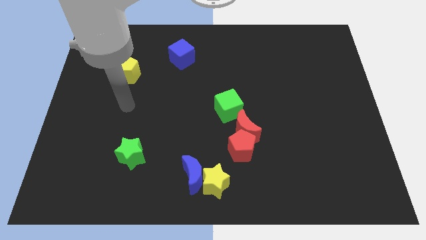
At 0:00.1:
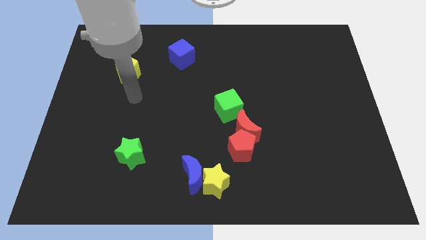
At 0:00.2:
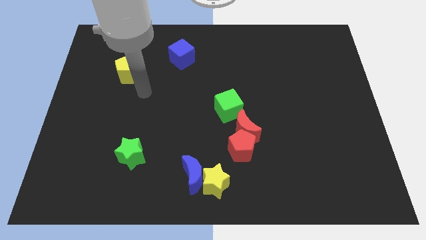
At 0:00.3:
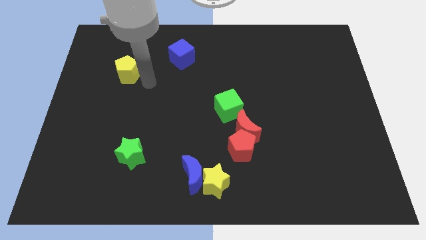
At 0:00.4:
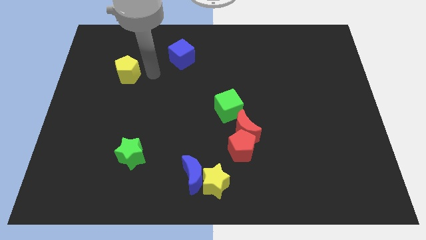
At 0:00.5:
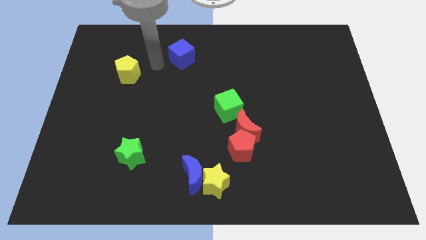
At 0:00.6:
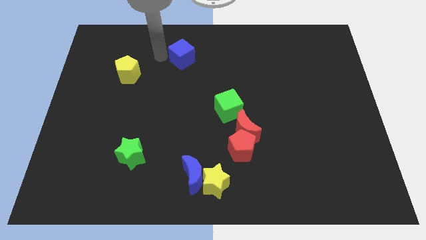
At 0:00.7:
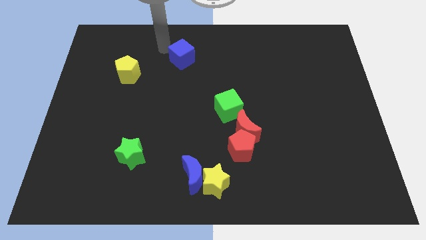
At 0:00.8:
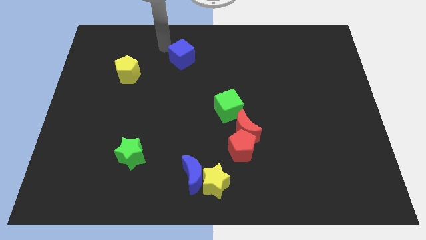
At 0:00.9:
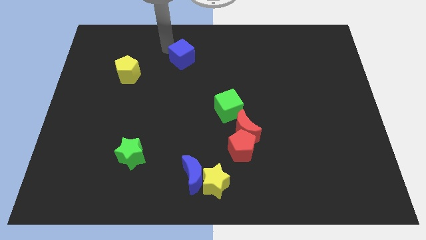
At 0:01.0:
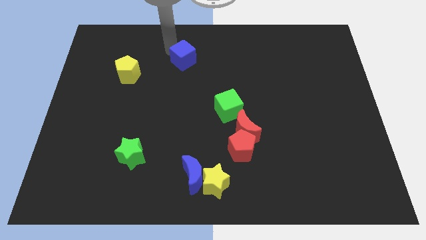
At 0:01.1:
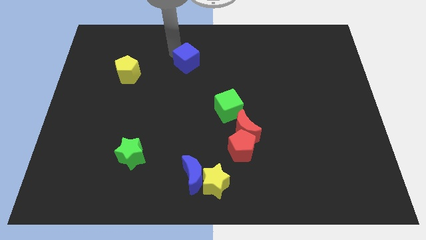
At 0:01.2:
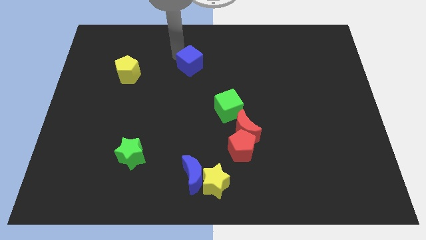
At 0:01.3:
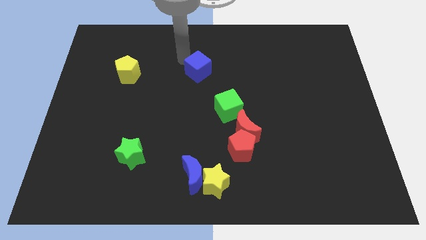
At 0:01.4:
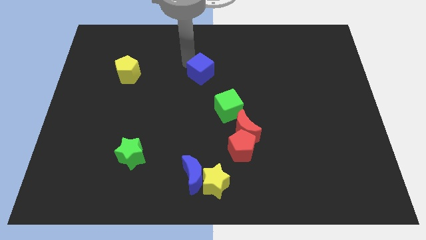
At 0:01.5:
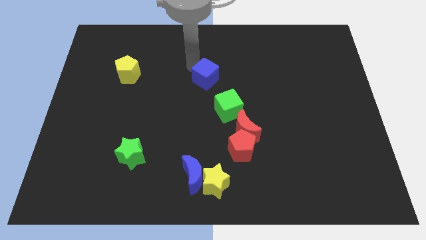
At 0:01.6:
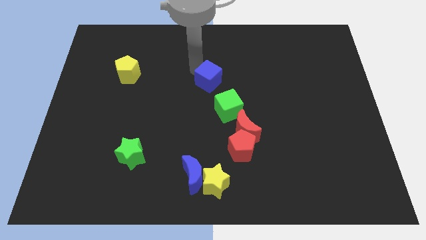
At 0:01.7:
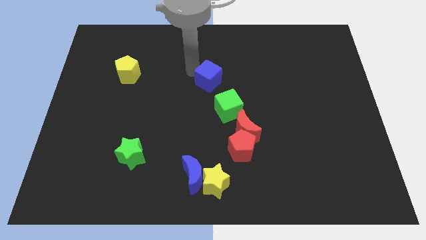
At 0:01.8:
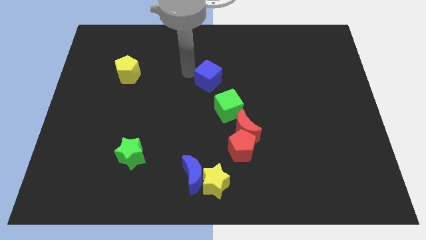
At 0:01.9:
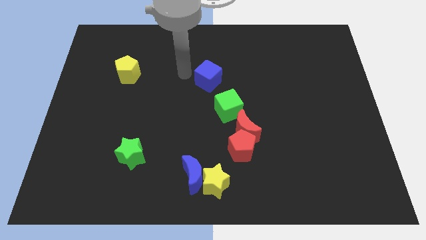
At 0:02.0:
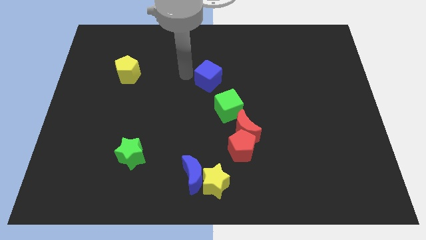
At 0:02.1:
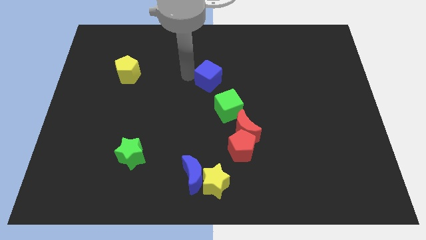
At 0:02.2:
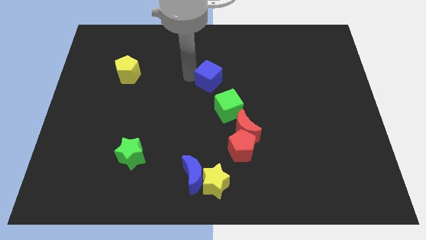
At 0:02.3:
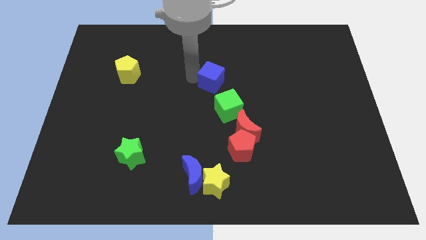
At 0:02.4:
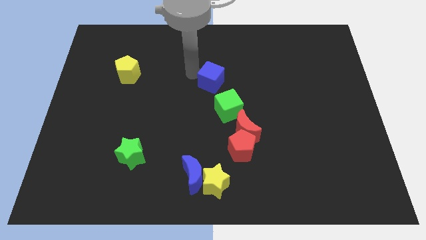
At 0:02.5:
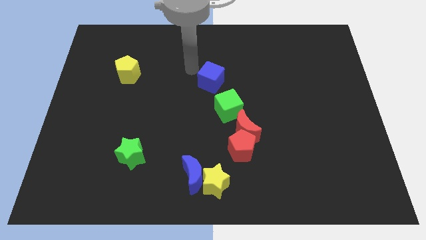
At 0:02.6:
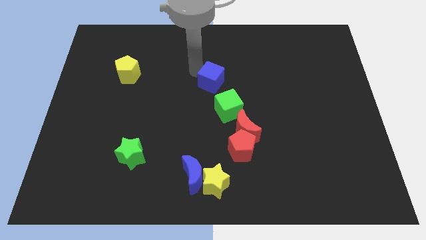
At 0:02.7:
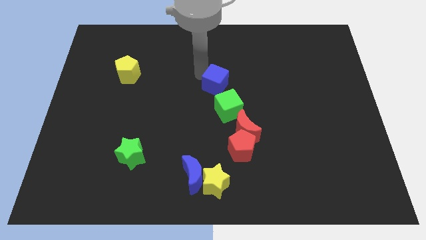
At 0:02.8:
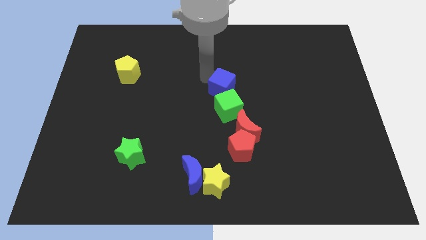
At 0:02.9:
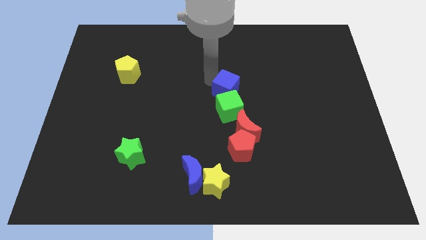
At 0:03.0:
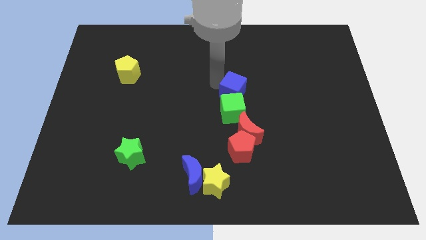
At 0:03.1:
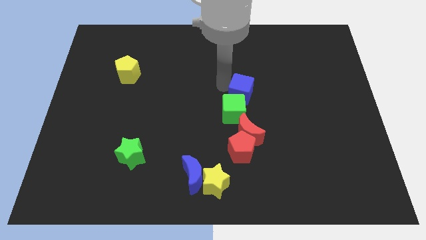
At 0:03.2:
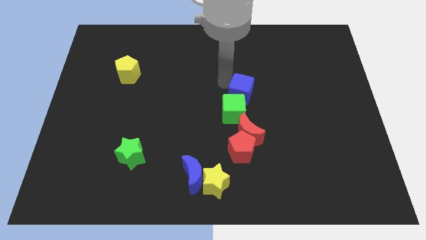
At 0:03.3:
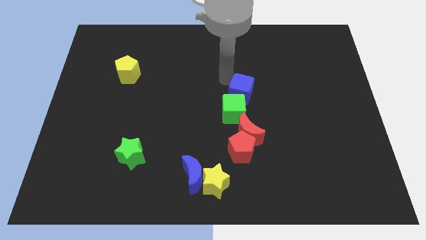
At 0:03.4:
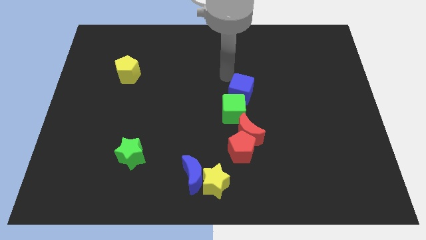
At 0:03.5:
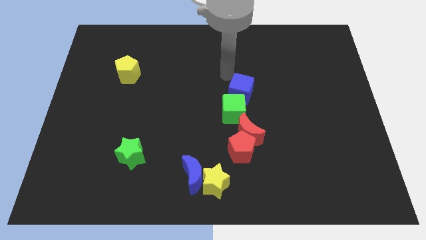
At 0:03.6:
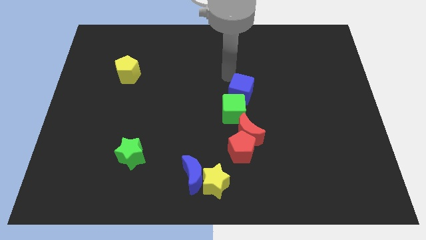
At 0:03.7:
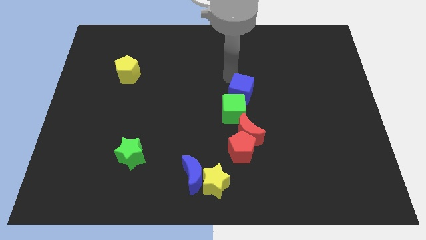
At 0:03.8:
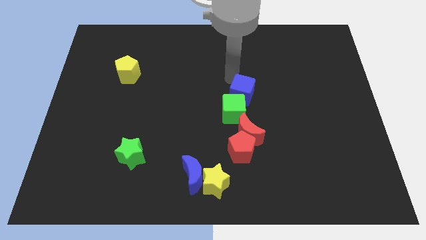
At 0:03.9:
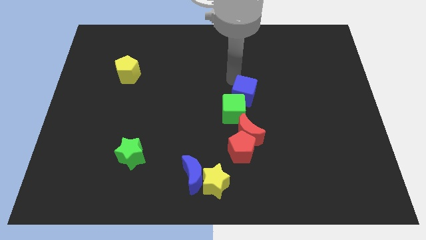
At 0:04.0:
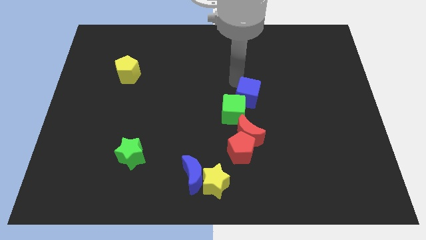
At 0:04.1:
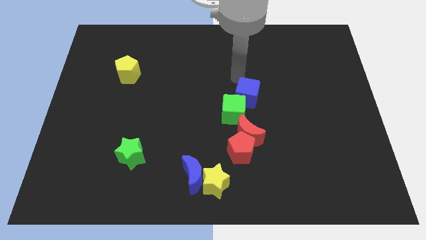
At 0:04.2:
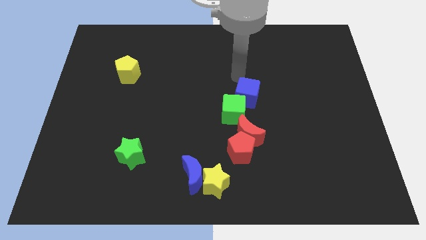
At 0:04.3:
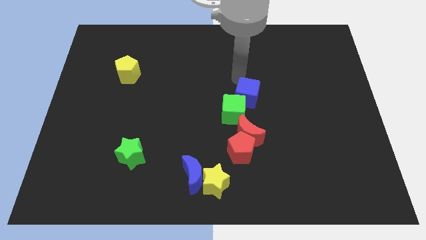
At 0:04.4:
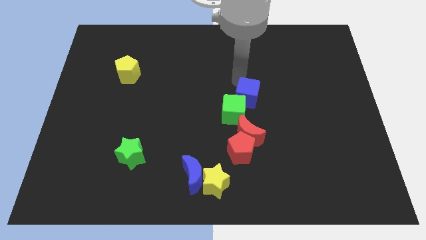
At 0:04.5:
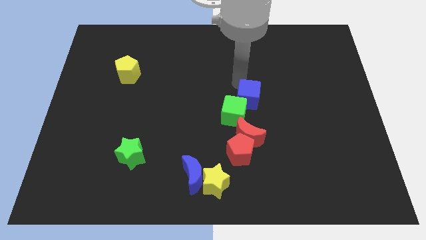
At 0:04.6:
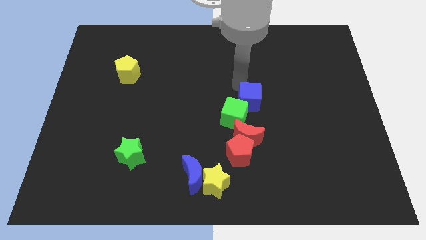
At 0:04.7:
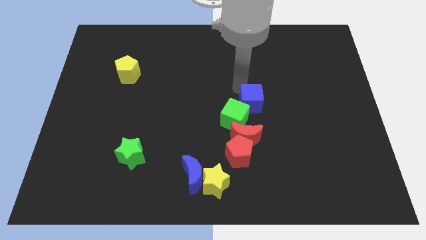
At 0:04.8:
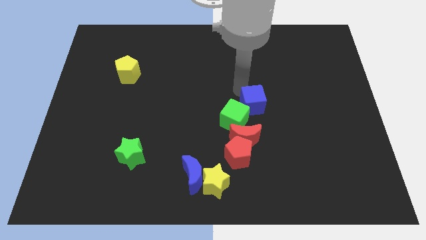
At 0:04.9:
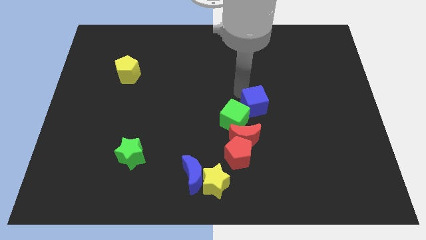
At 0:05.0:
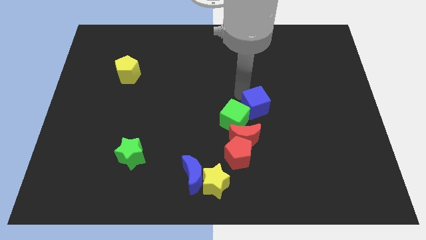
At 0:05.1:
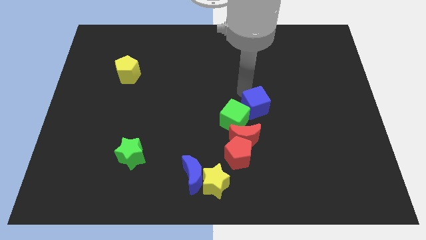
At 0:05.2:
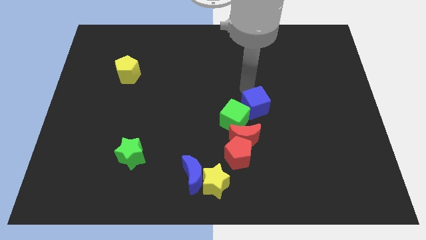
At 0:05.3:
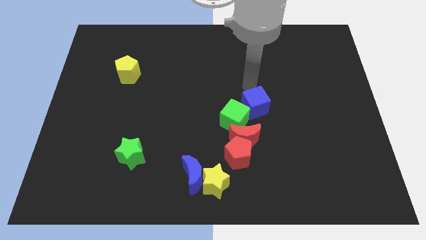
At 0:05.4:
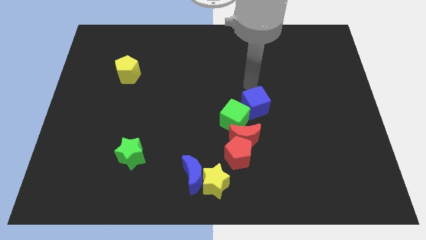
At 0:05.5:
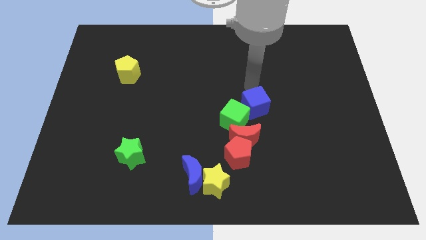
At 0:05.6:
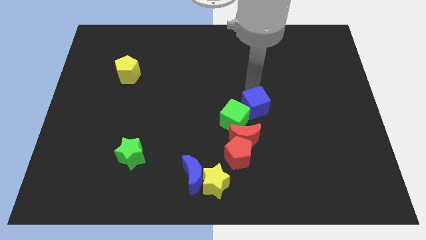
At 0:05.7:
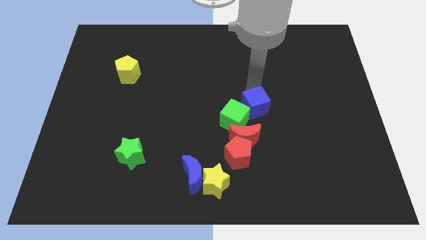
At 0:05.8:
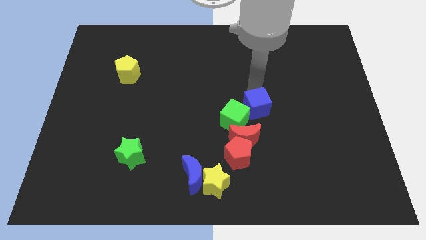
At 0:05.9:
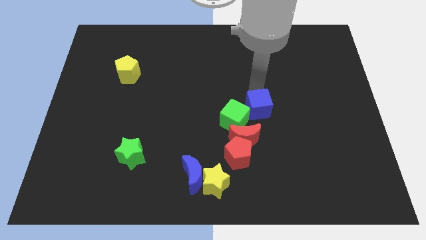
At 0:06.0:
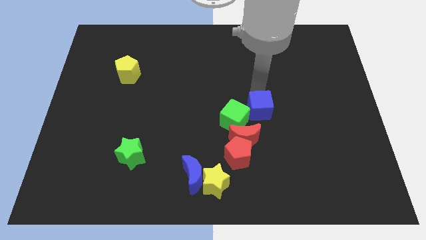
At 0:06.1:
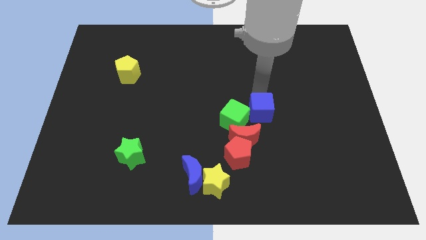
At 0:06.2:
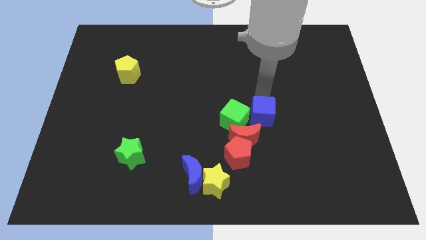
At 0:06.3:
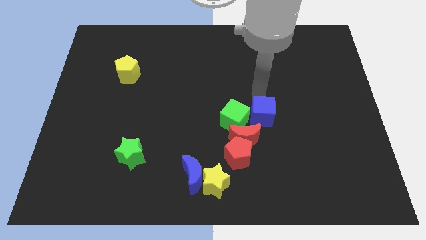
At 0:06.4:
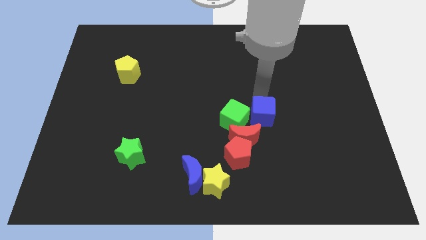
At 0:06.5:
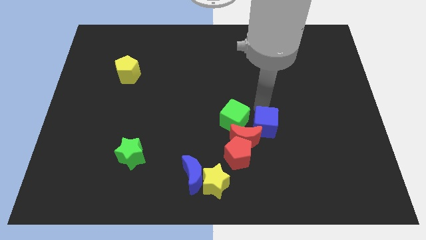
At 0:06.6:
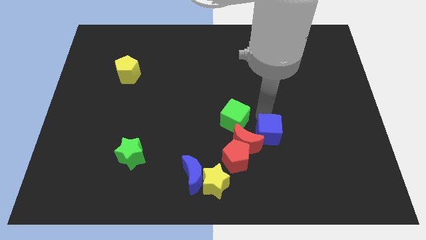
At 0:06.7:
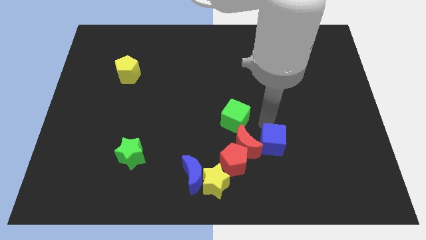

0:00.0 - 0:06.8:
slide the blue cube to the bottom right of the red moon

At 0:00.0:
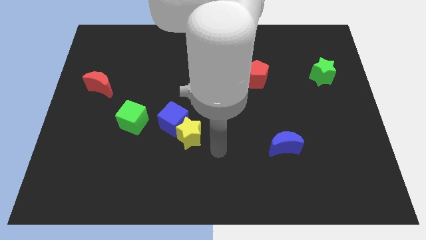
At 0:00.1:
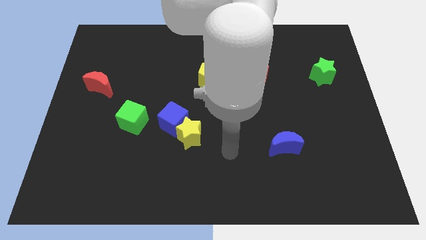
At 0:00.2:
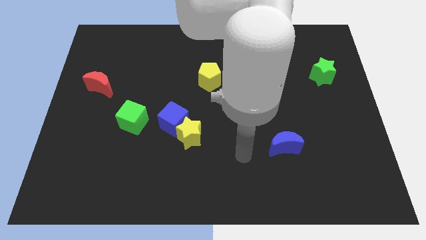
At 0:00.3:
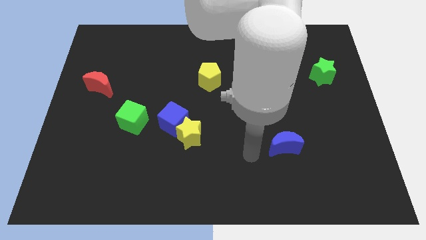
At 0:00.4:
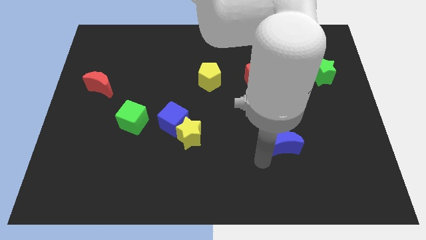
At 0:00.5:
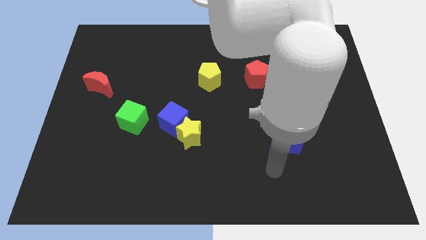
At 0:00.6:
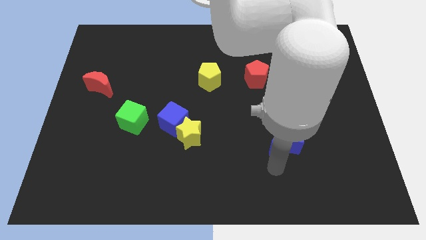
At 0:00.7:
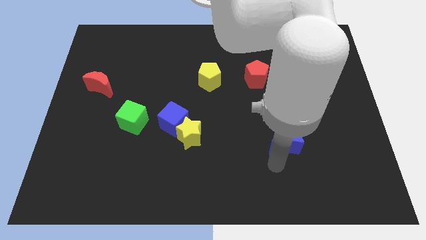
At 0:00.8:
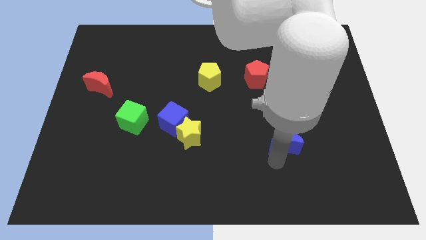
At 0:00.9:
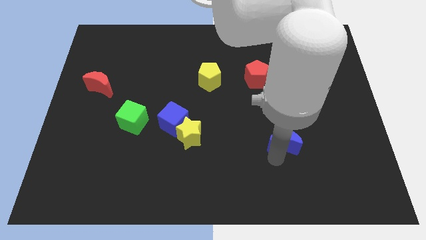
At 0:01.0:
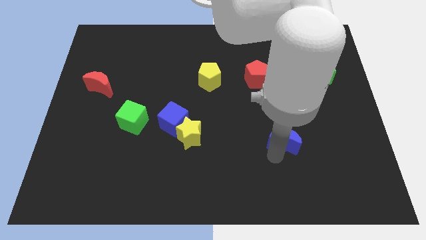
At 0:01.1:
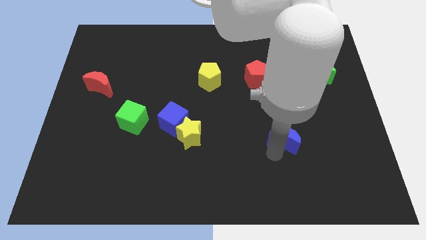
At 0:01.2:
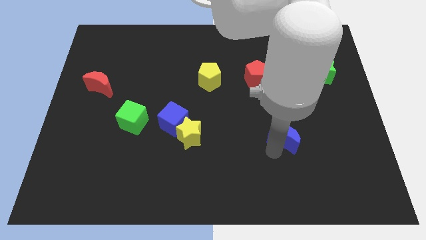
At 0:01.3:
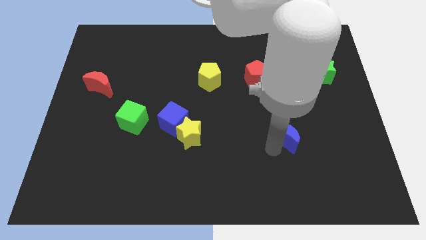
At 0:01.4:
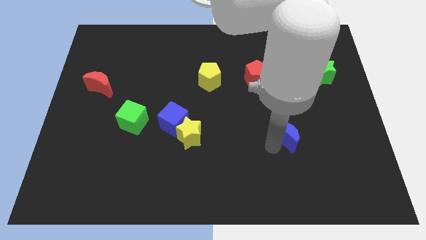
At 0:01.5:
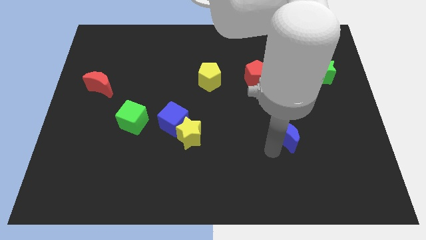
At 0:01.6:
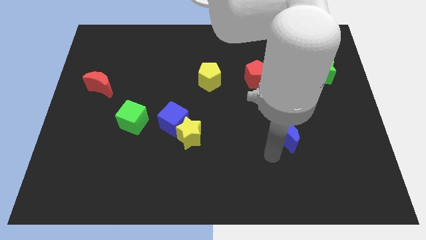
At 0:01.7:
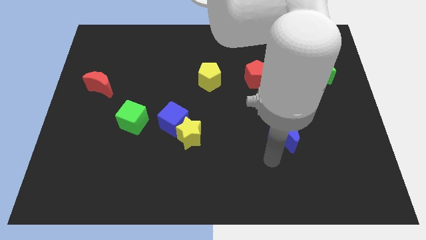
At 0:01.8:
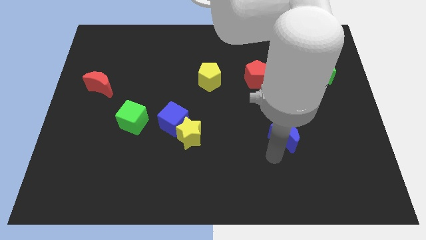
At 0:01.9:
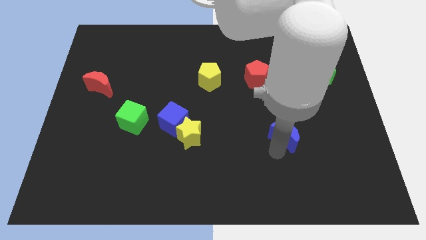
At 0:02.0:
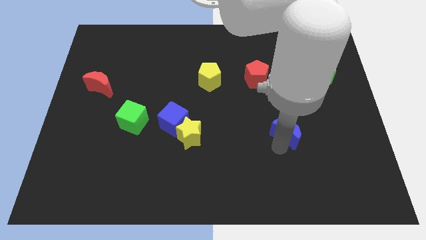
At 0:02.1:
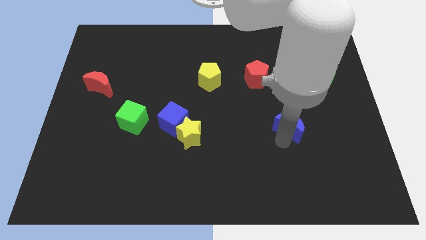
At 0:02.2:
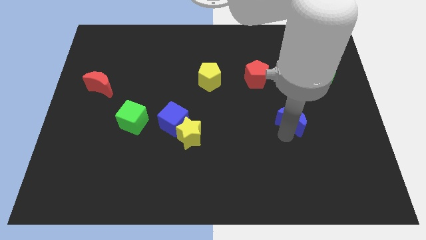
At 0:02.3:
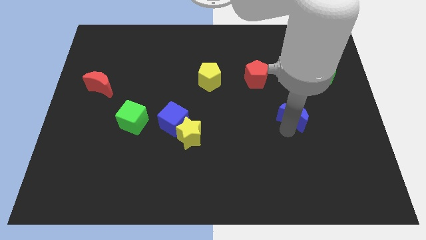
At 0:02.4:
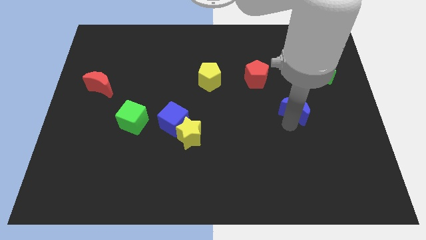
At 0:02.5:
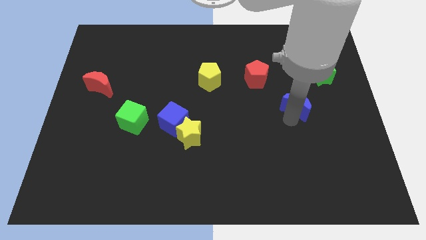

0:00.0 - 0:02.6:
push the blue moon diagonally down and to the left of the green star
